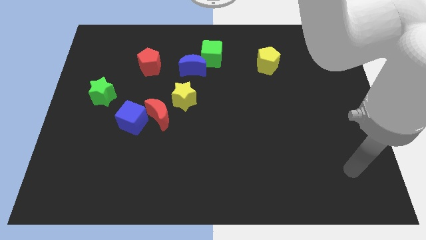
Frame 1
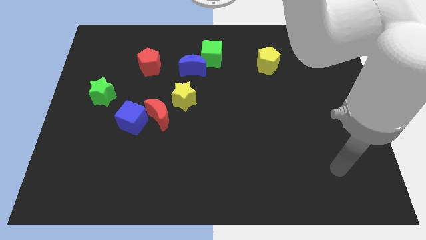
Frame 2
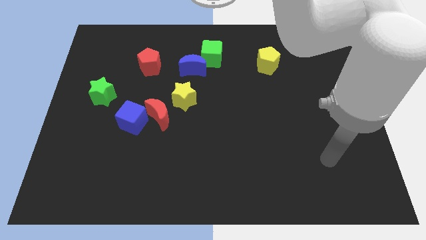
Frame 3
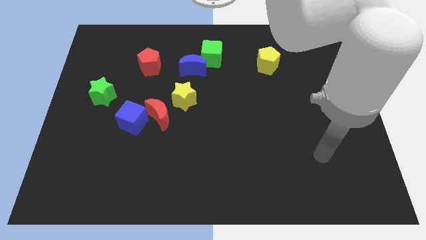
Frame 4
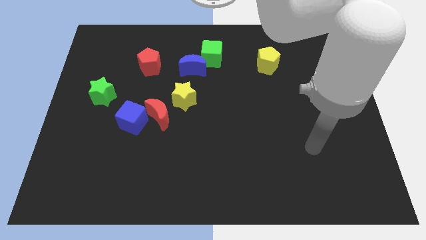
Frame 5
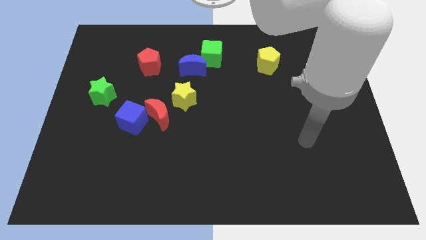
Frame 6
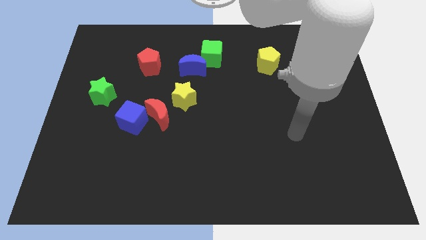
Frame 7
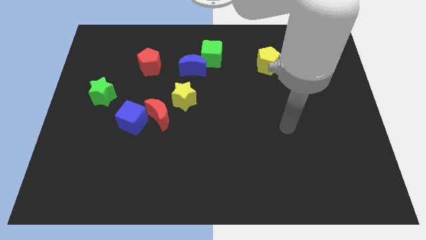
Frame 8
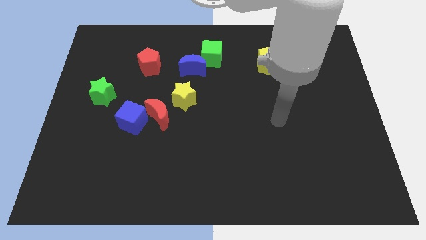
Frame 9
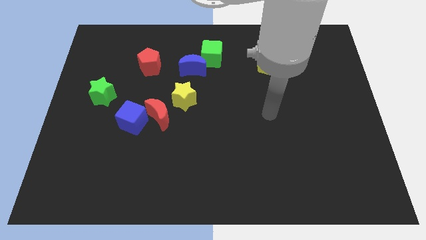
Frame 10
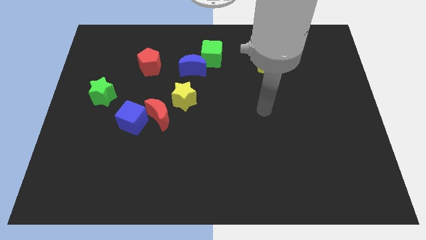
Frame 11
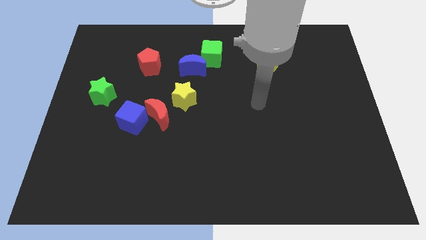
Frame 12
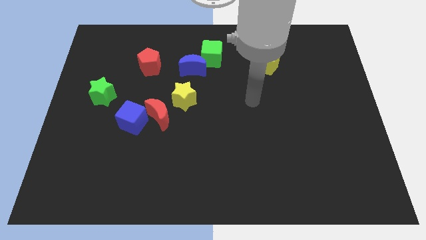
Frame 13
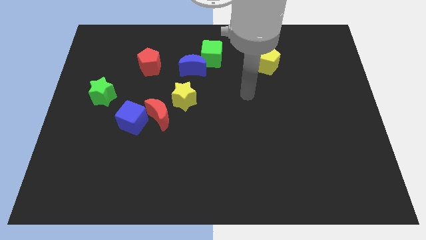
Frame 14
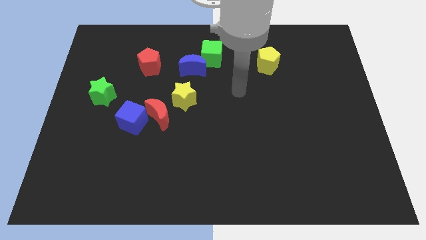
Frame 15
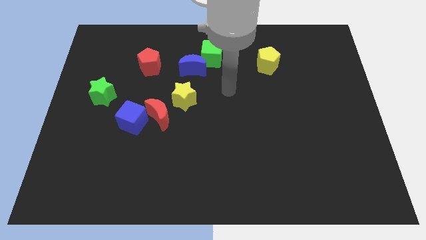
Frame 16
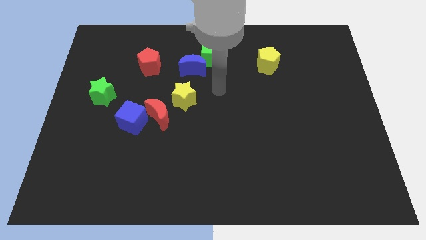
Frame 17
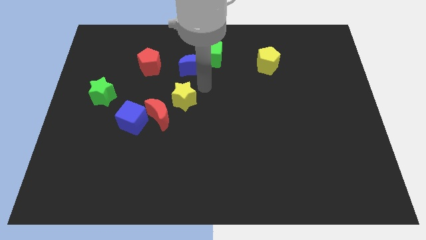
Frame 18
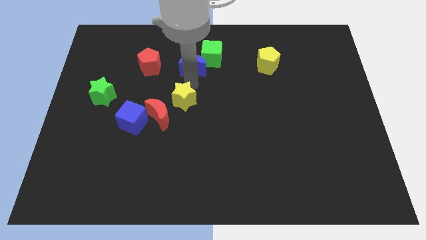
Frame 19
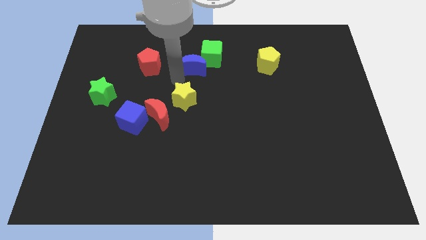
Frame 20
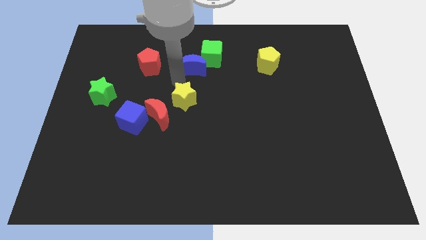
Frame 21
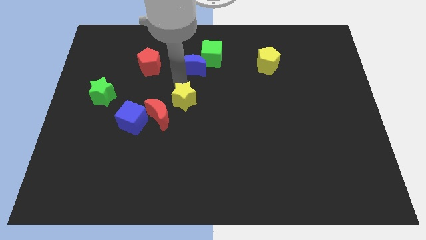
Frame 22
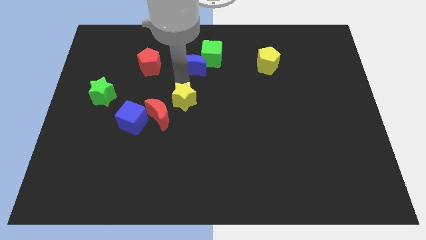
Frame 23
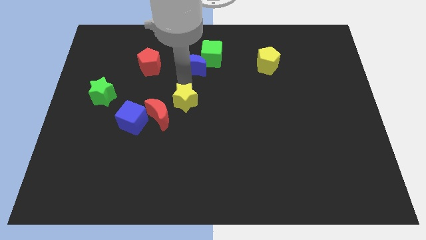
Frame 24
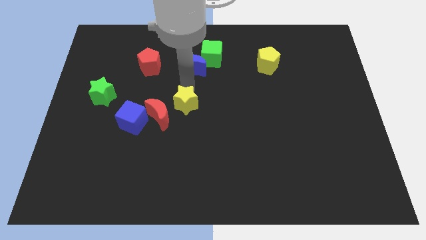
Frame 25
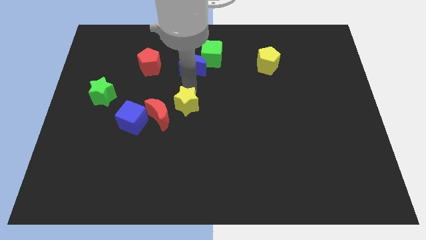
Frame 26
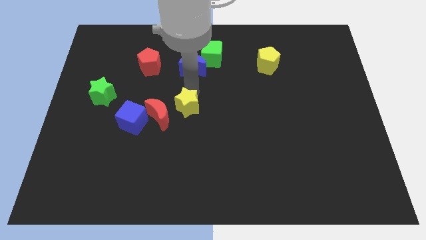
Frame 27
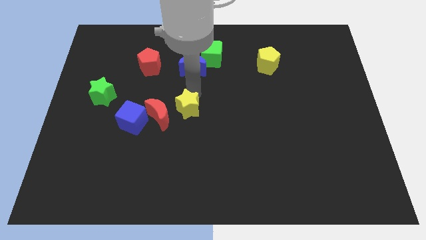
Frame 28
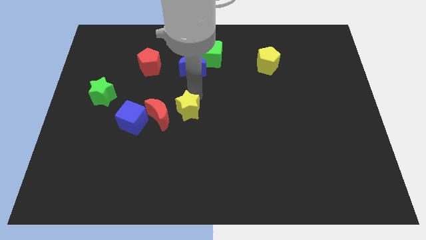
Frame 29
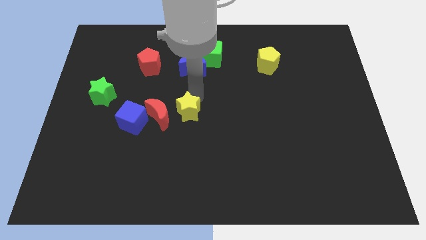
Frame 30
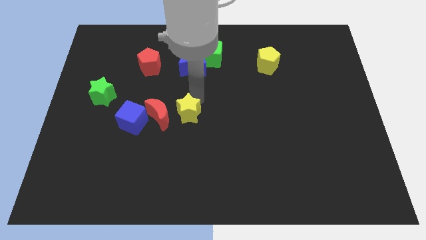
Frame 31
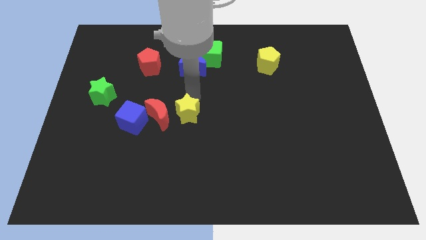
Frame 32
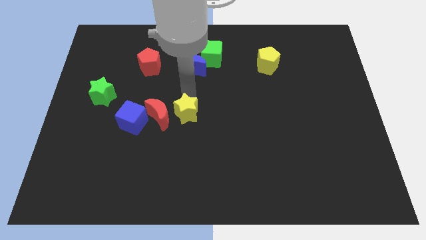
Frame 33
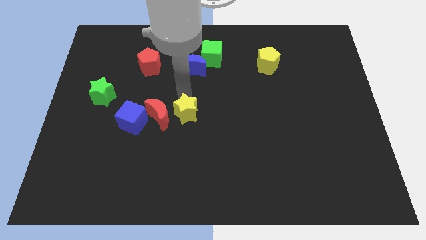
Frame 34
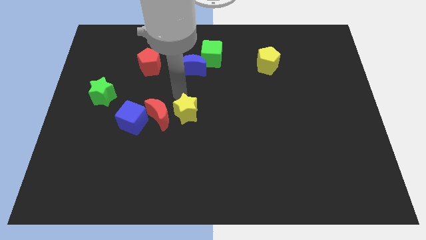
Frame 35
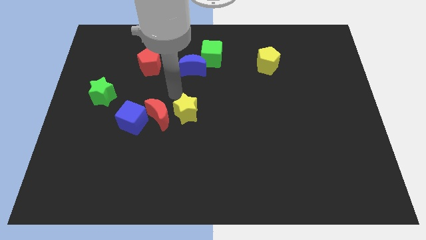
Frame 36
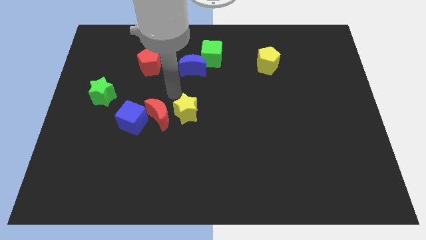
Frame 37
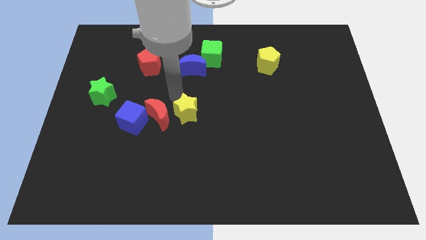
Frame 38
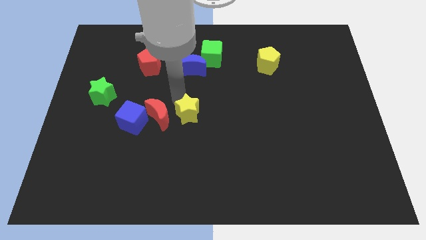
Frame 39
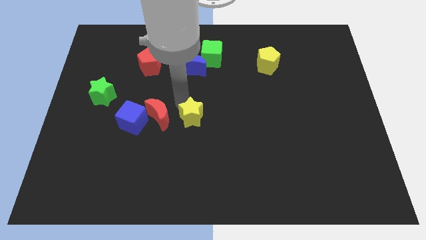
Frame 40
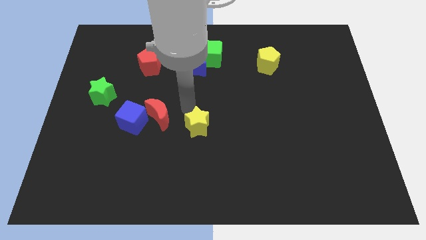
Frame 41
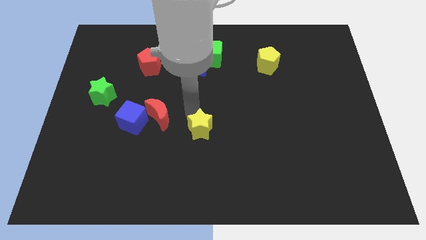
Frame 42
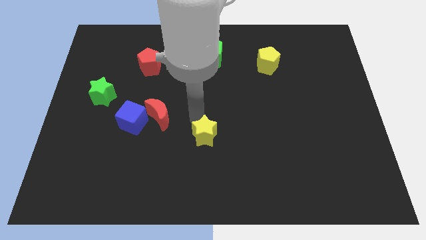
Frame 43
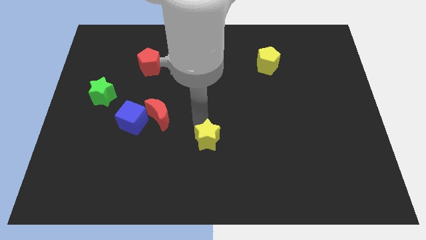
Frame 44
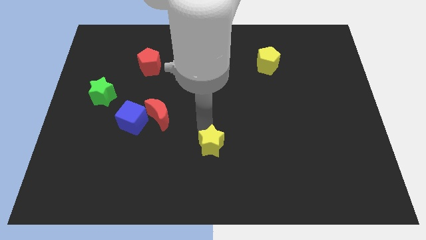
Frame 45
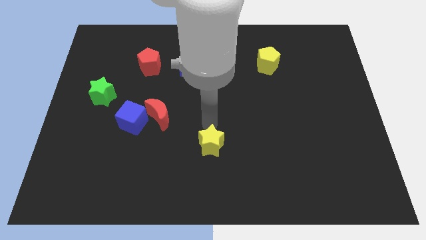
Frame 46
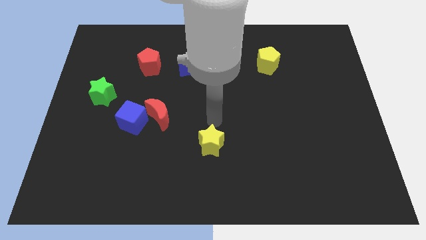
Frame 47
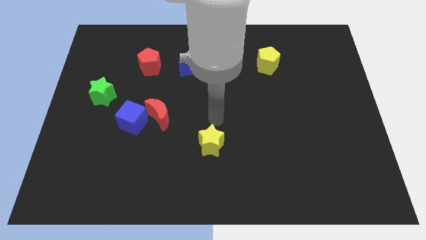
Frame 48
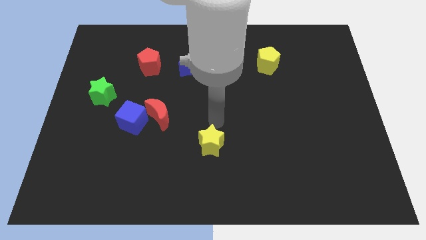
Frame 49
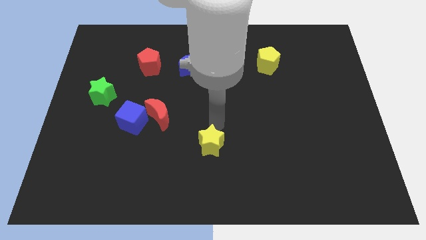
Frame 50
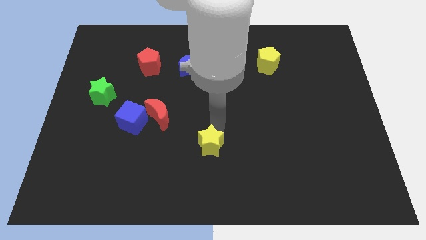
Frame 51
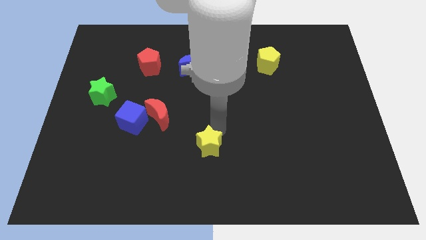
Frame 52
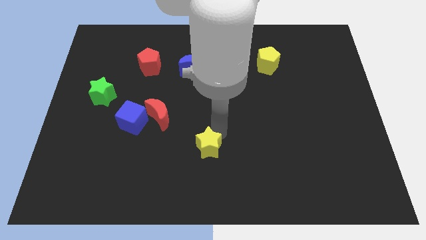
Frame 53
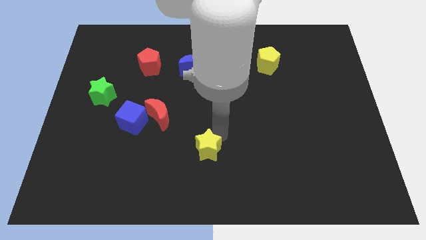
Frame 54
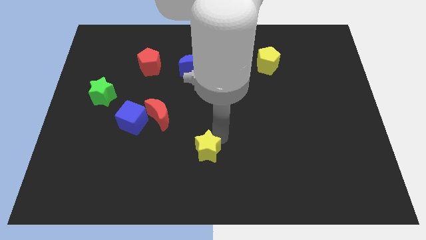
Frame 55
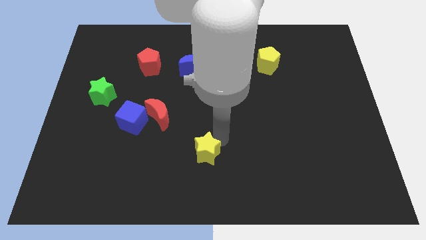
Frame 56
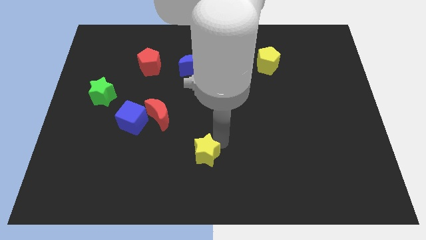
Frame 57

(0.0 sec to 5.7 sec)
put the yellow star to the bottom

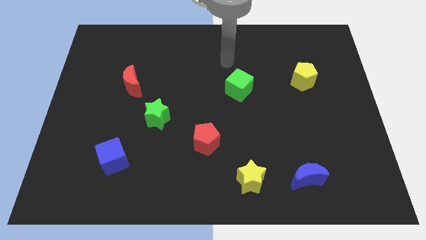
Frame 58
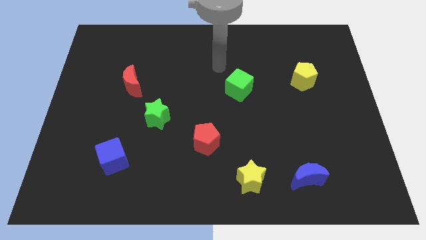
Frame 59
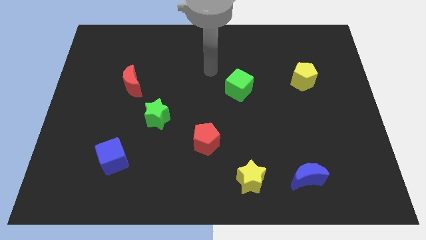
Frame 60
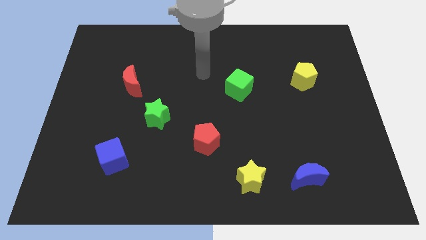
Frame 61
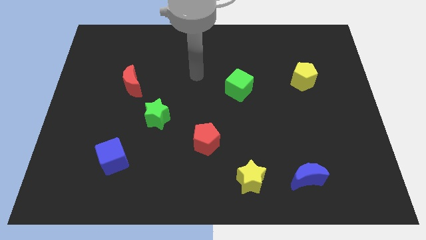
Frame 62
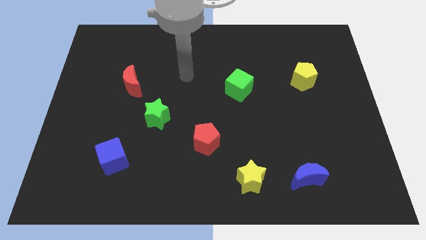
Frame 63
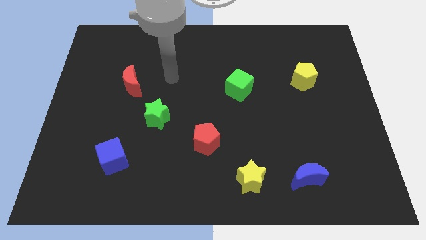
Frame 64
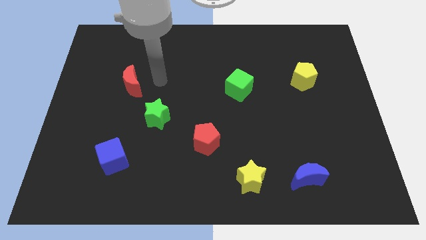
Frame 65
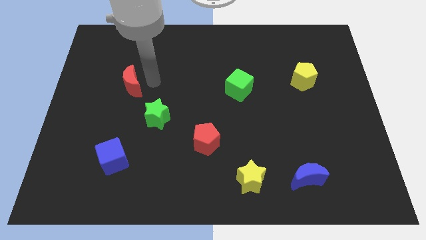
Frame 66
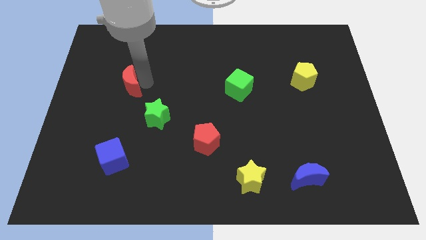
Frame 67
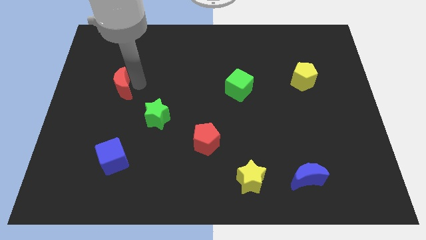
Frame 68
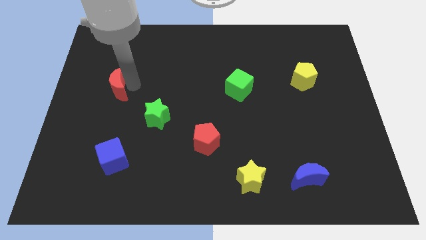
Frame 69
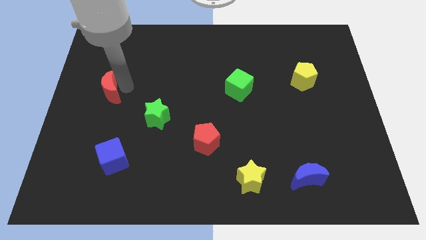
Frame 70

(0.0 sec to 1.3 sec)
put the red moon to the center left
